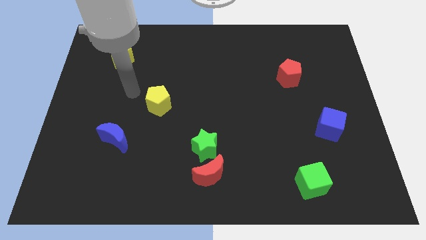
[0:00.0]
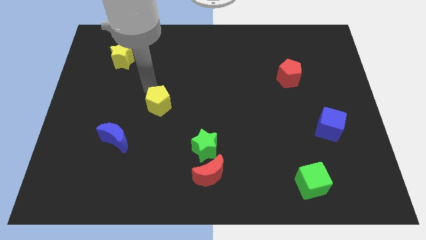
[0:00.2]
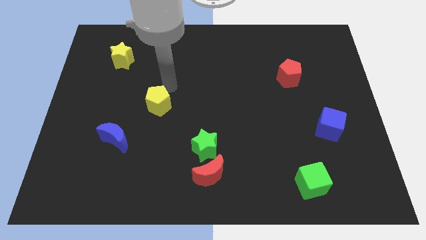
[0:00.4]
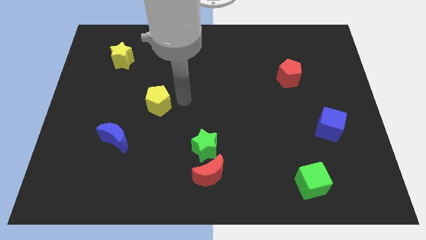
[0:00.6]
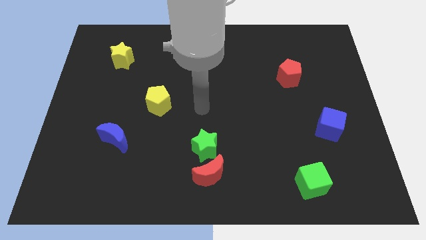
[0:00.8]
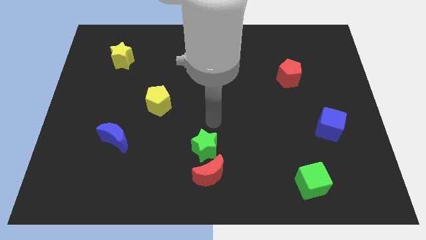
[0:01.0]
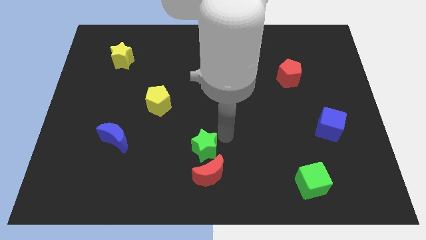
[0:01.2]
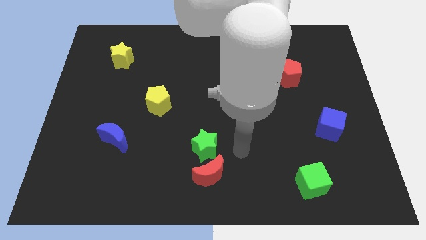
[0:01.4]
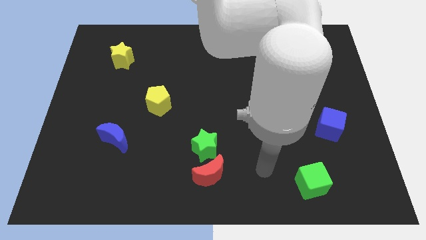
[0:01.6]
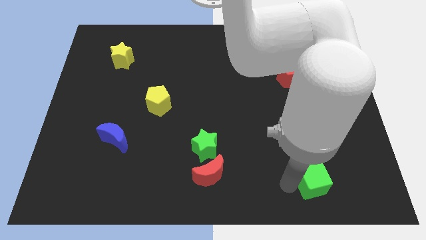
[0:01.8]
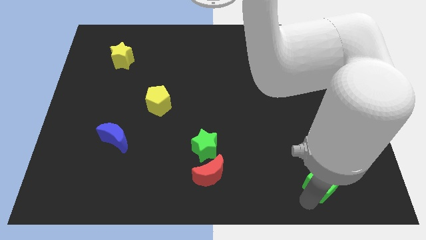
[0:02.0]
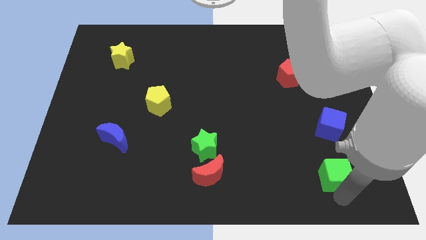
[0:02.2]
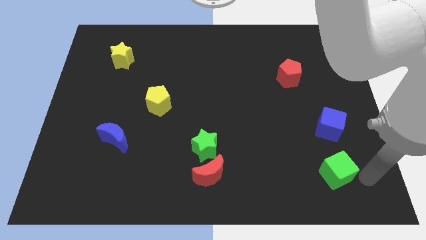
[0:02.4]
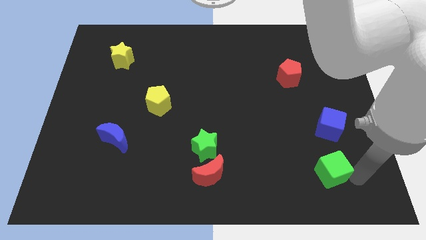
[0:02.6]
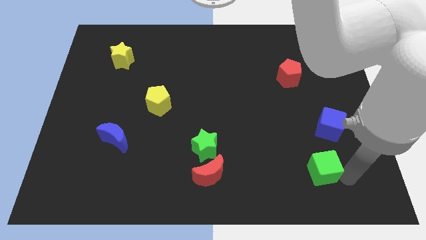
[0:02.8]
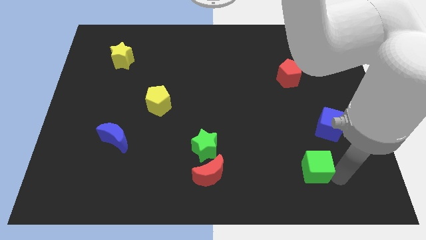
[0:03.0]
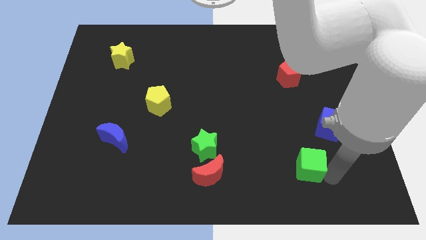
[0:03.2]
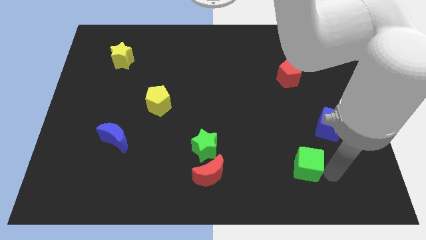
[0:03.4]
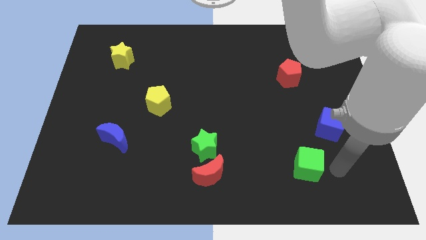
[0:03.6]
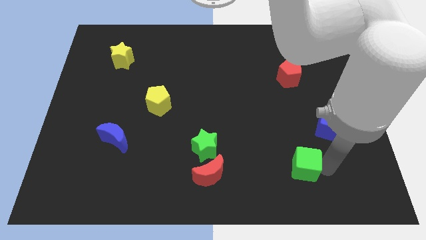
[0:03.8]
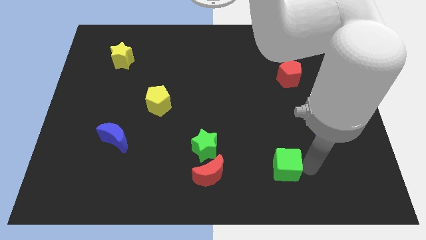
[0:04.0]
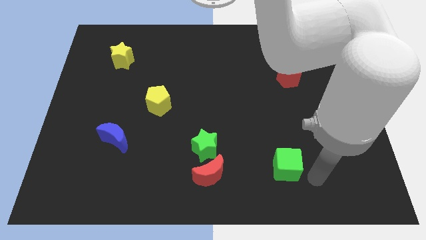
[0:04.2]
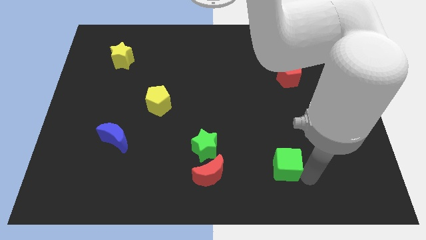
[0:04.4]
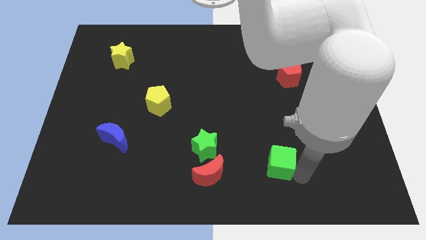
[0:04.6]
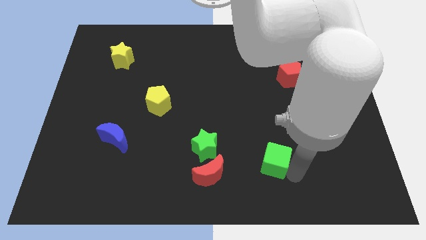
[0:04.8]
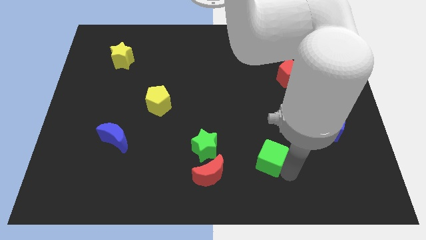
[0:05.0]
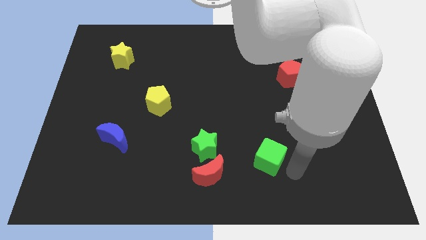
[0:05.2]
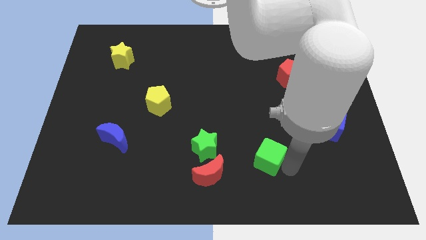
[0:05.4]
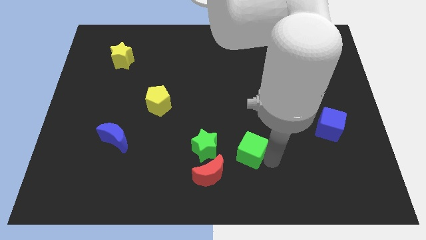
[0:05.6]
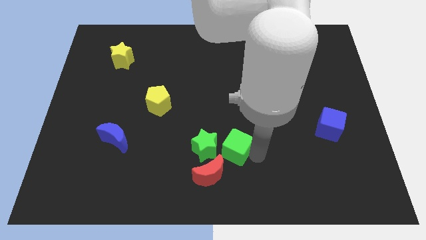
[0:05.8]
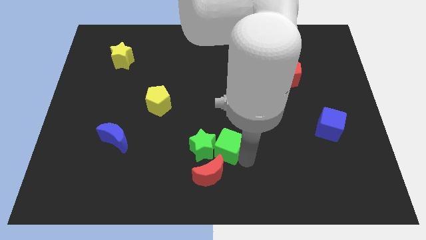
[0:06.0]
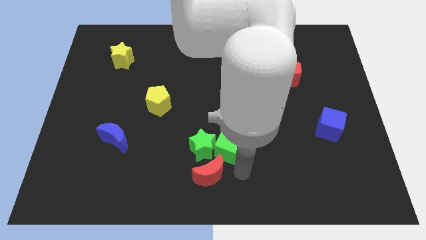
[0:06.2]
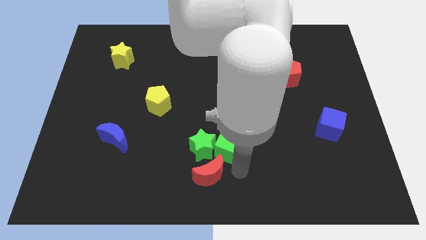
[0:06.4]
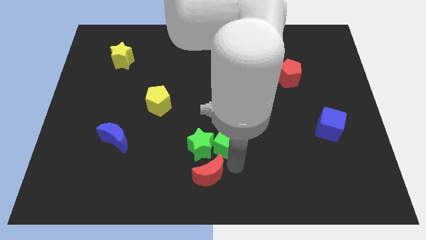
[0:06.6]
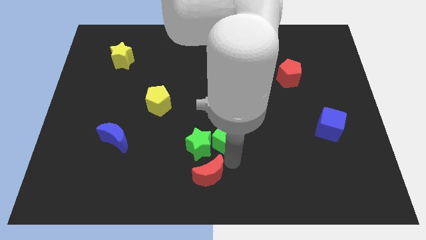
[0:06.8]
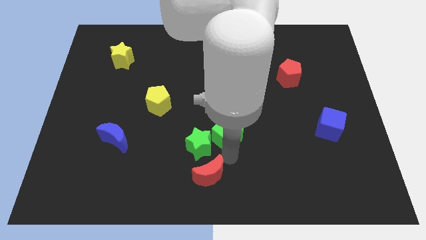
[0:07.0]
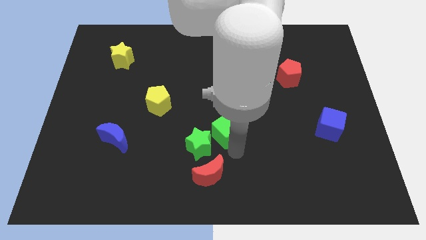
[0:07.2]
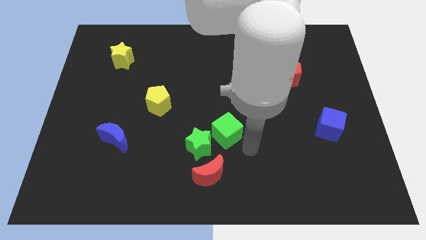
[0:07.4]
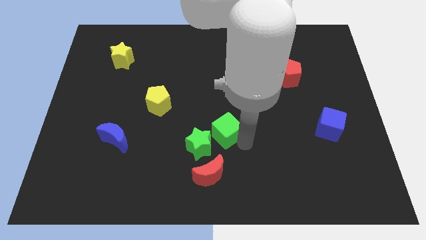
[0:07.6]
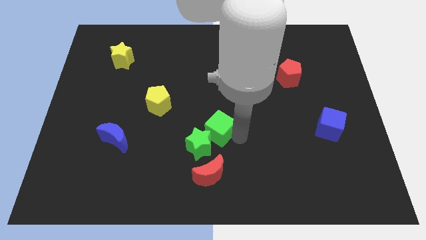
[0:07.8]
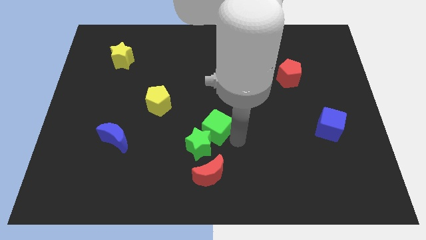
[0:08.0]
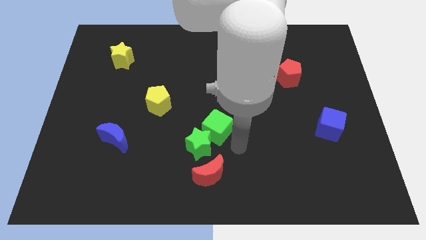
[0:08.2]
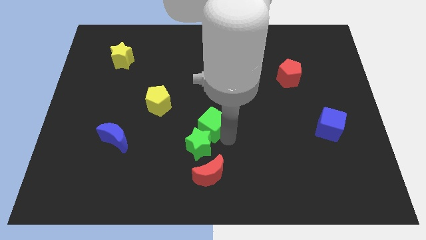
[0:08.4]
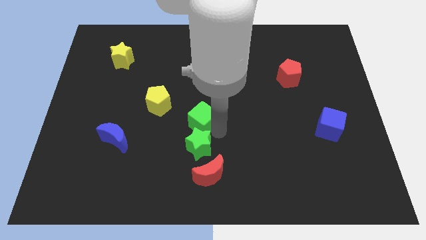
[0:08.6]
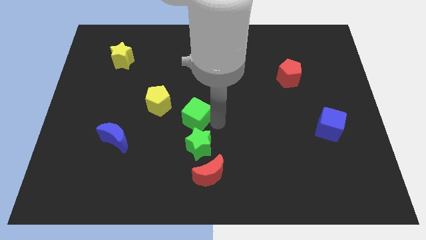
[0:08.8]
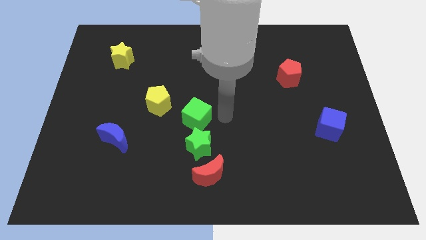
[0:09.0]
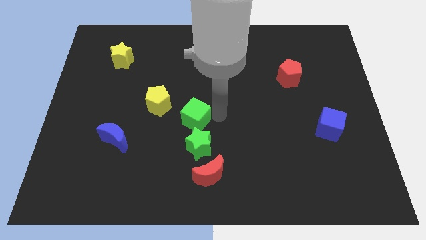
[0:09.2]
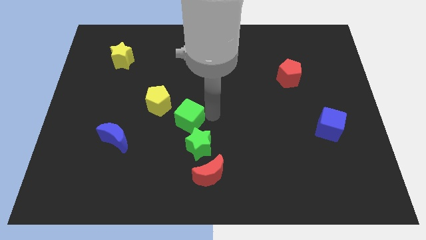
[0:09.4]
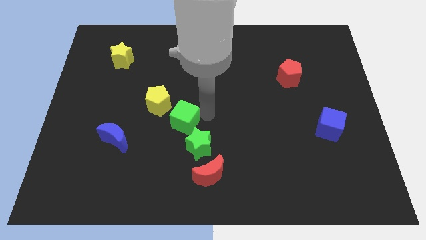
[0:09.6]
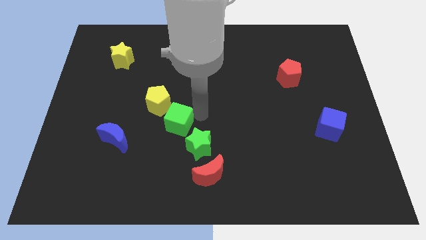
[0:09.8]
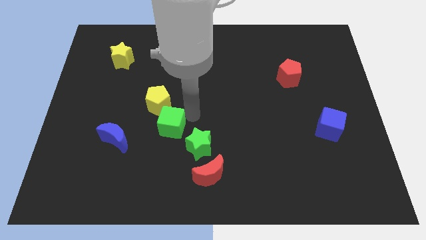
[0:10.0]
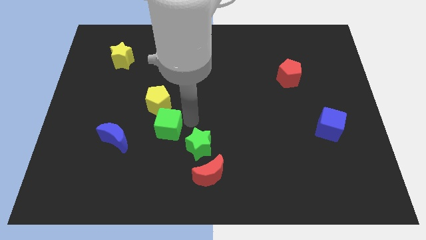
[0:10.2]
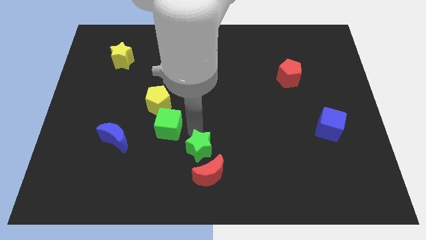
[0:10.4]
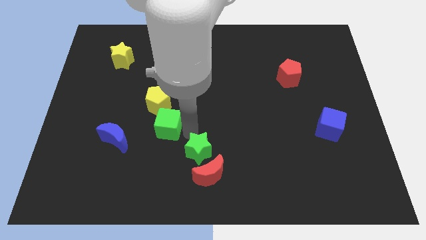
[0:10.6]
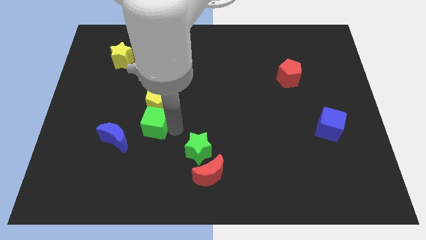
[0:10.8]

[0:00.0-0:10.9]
push the green cube diagonally up and to the right of the blue moon

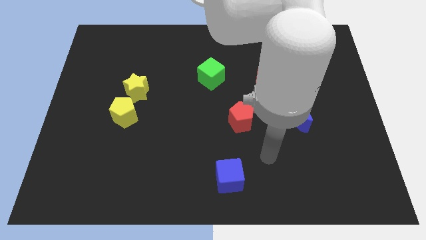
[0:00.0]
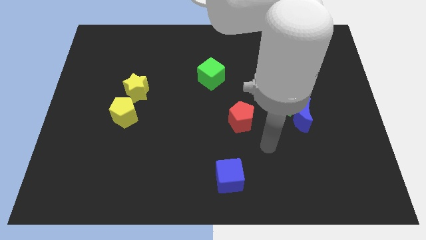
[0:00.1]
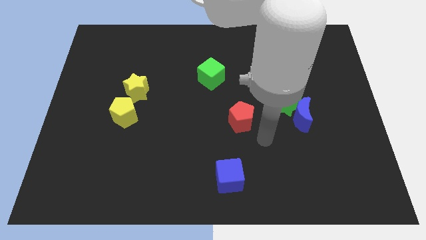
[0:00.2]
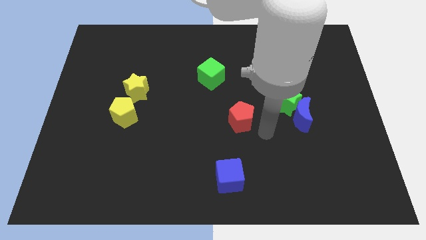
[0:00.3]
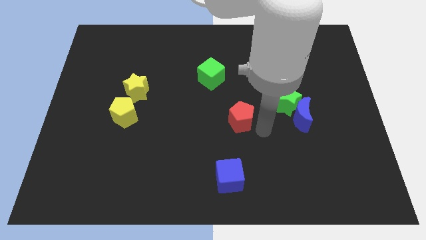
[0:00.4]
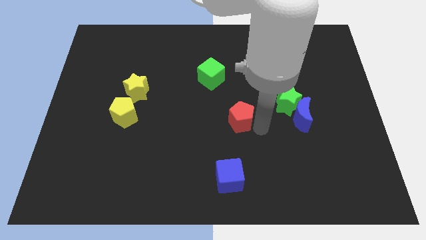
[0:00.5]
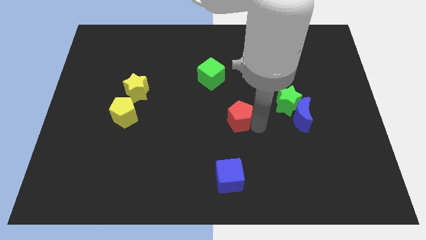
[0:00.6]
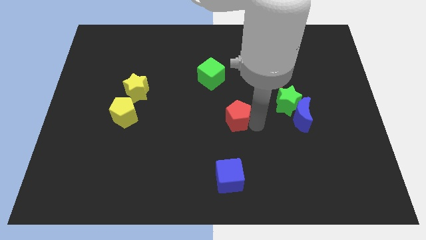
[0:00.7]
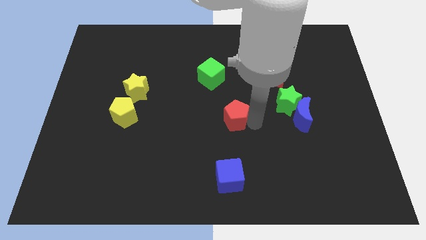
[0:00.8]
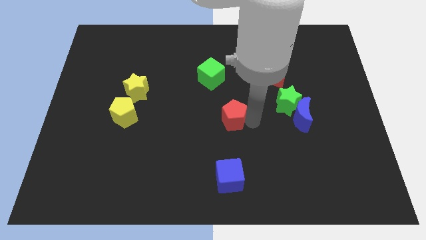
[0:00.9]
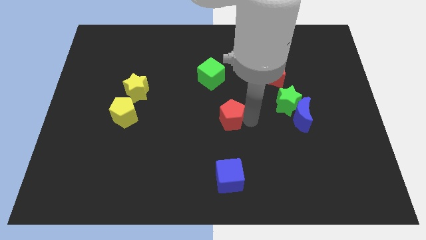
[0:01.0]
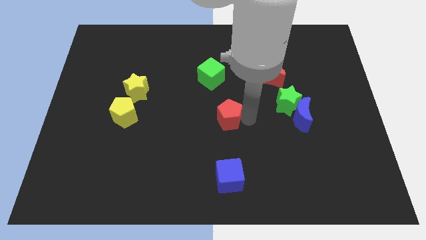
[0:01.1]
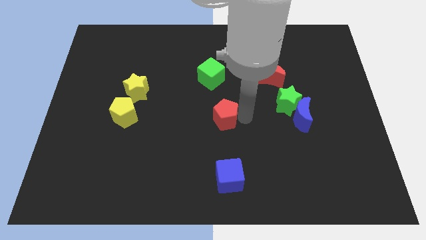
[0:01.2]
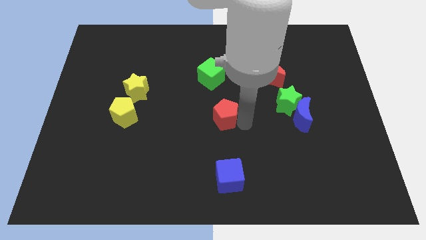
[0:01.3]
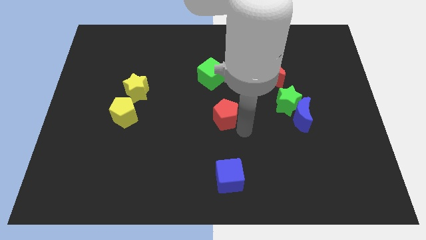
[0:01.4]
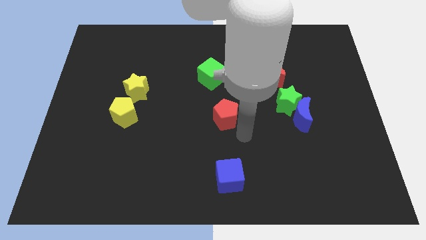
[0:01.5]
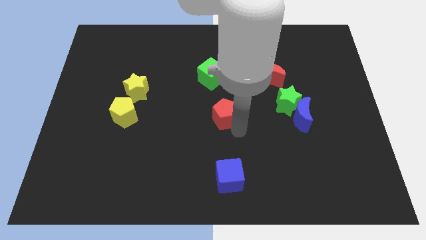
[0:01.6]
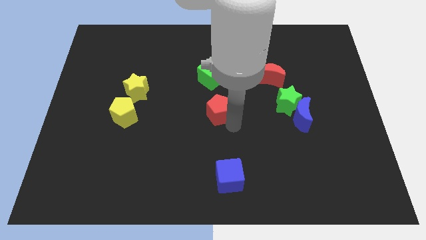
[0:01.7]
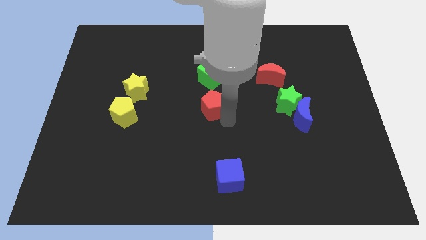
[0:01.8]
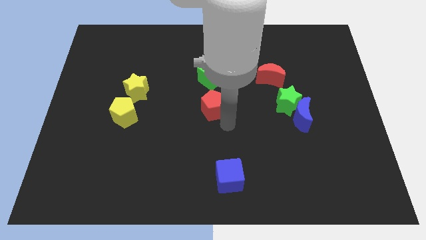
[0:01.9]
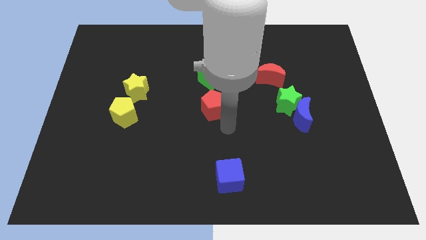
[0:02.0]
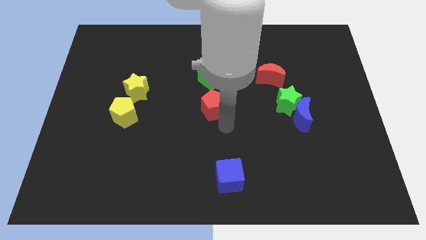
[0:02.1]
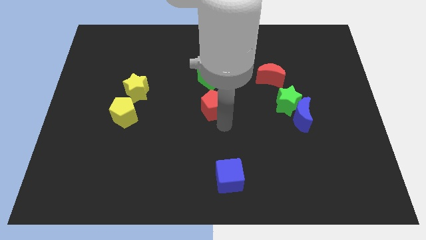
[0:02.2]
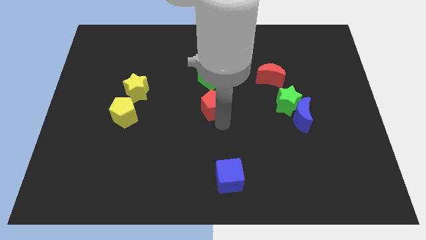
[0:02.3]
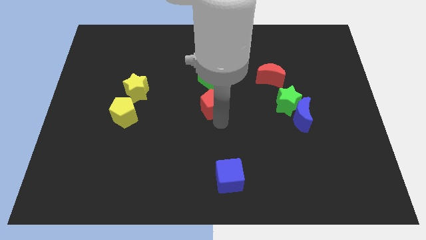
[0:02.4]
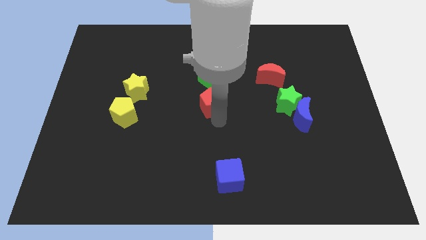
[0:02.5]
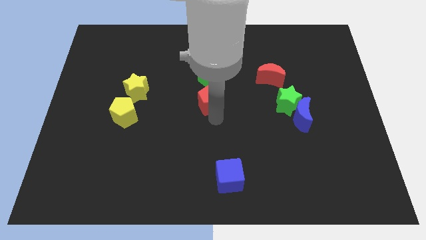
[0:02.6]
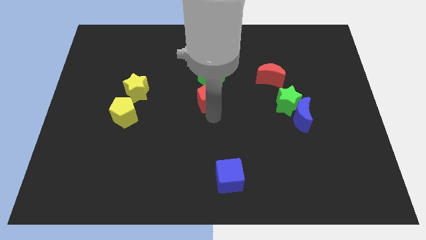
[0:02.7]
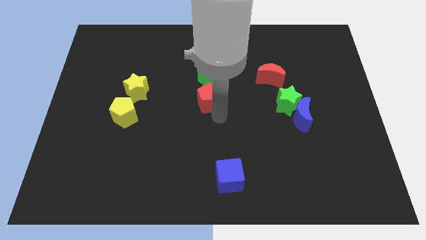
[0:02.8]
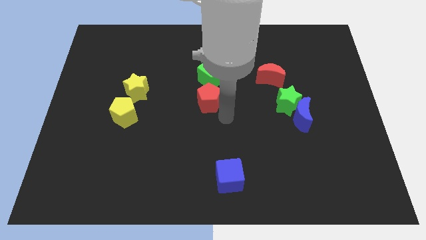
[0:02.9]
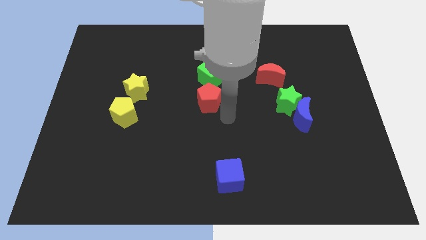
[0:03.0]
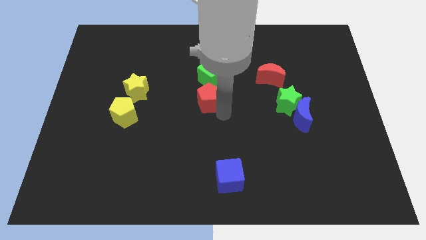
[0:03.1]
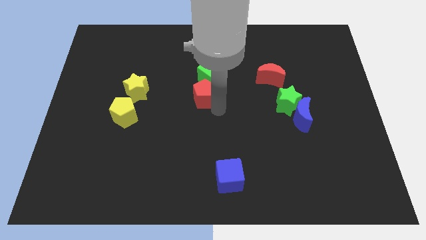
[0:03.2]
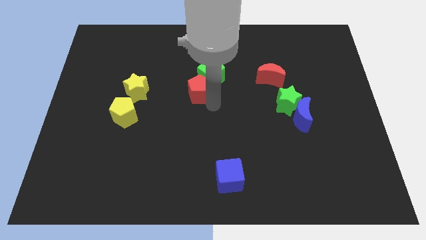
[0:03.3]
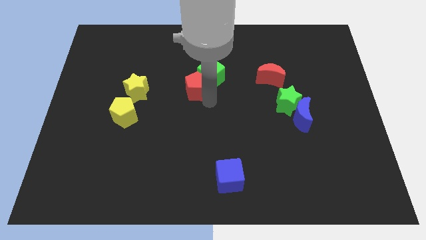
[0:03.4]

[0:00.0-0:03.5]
move the red pentagon left of the green cube
